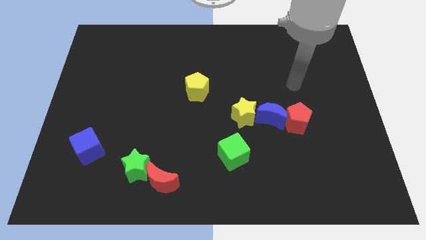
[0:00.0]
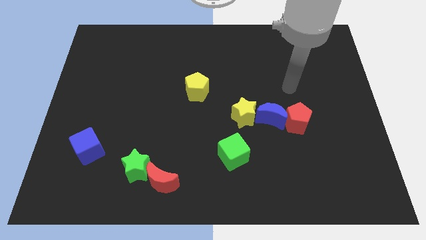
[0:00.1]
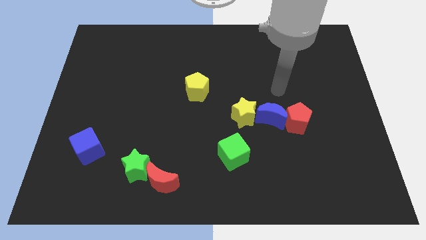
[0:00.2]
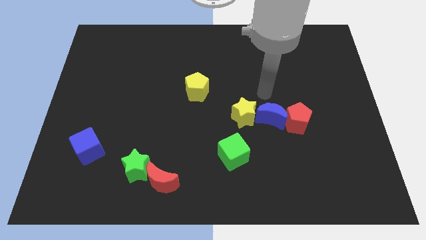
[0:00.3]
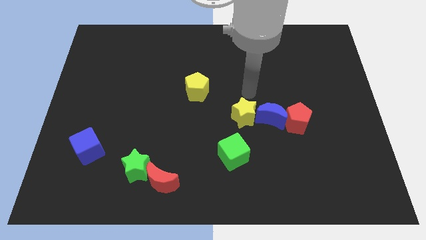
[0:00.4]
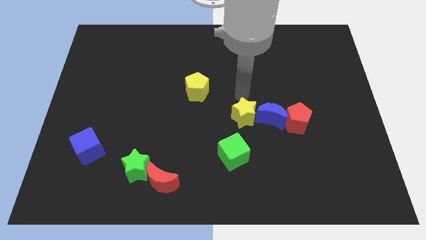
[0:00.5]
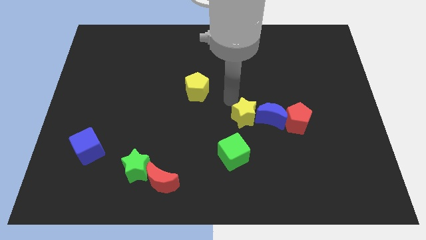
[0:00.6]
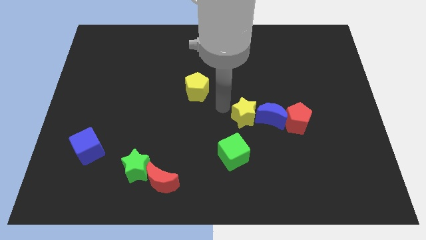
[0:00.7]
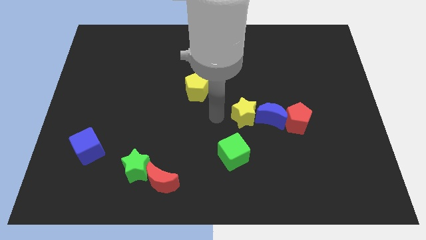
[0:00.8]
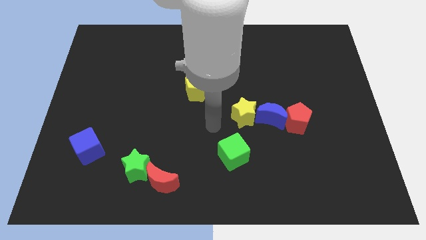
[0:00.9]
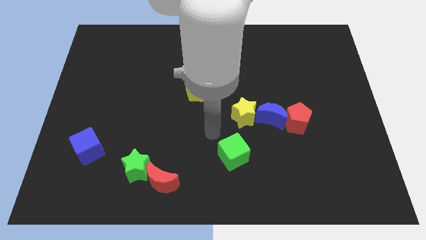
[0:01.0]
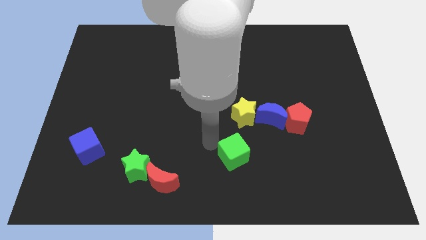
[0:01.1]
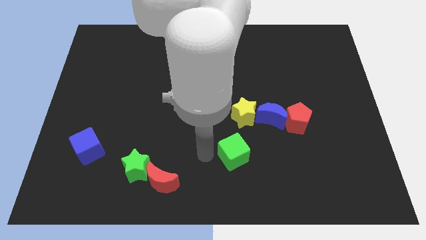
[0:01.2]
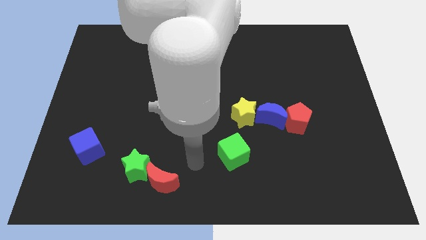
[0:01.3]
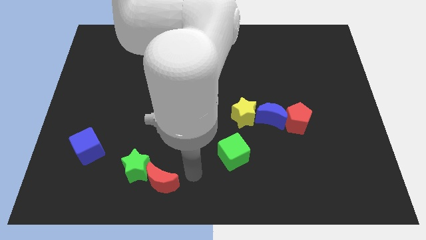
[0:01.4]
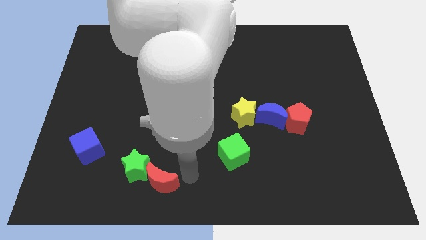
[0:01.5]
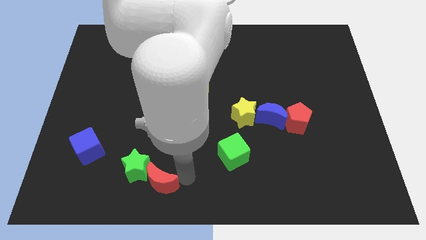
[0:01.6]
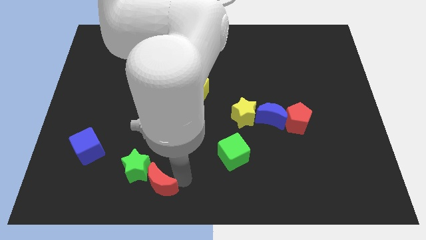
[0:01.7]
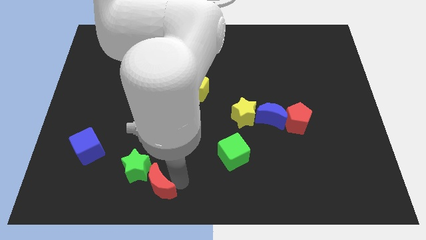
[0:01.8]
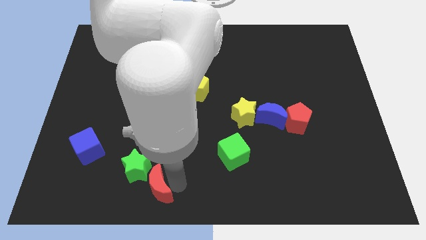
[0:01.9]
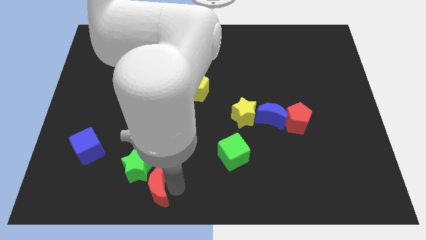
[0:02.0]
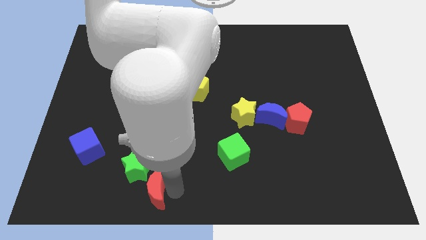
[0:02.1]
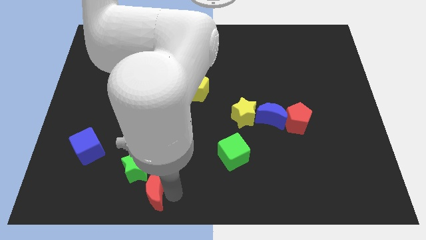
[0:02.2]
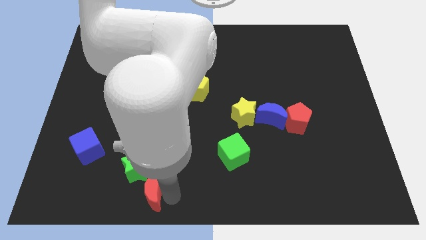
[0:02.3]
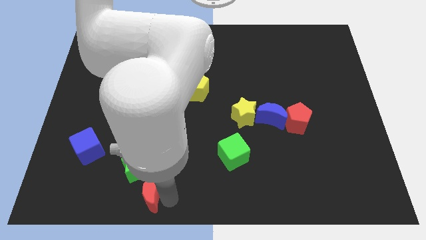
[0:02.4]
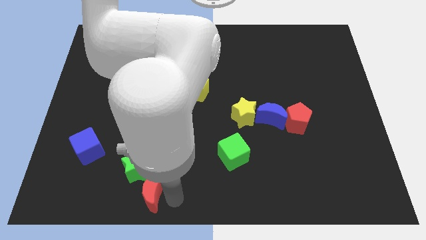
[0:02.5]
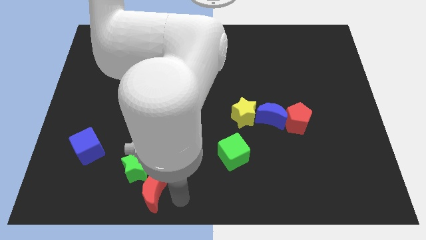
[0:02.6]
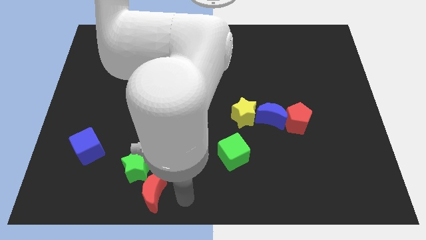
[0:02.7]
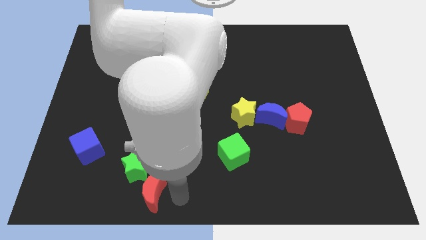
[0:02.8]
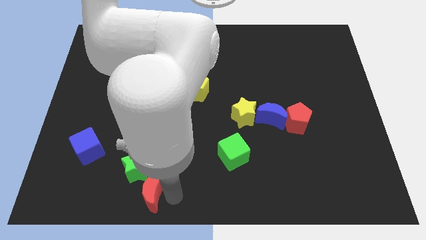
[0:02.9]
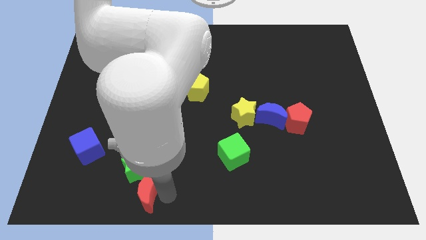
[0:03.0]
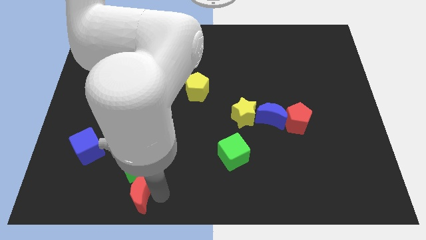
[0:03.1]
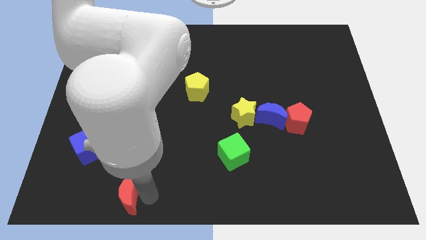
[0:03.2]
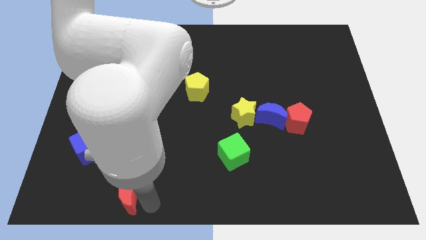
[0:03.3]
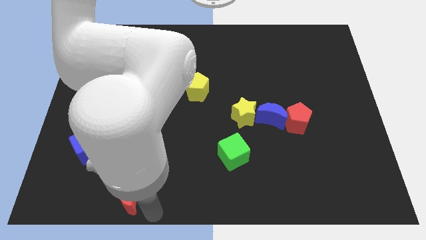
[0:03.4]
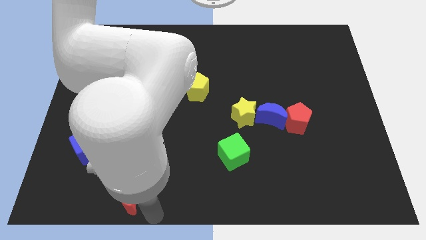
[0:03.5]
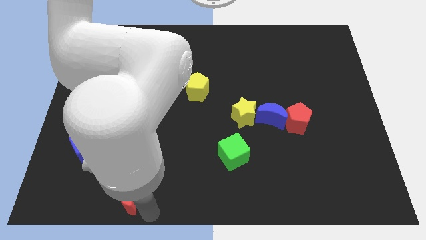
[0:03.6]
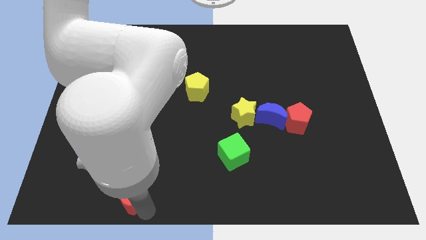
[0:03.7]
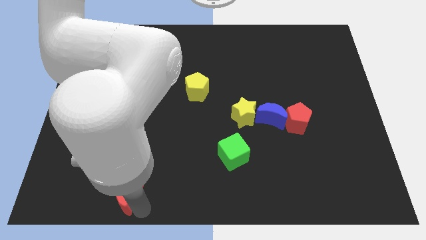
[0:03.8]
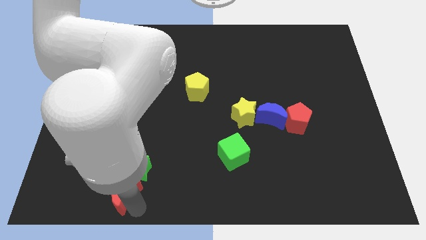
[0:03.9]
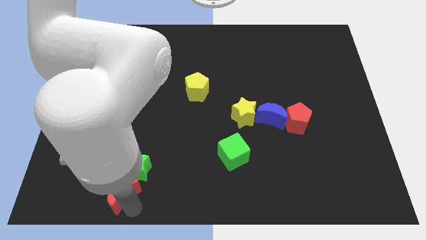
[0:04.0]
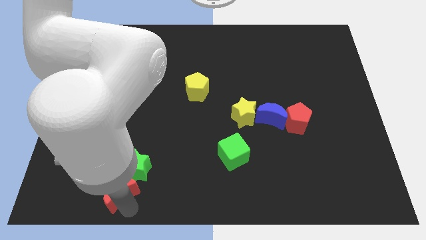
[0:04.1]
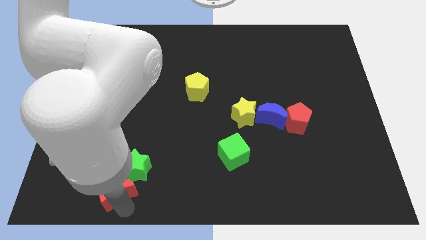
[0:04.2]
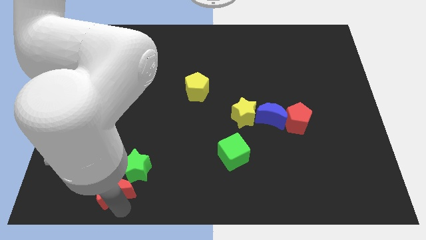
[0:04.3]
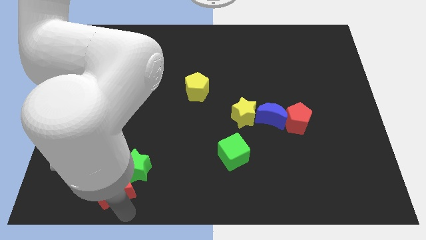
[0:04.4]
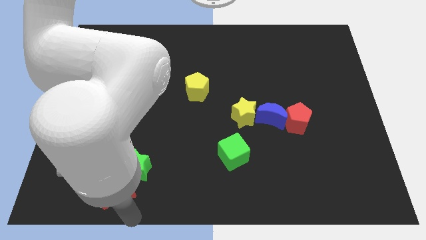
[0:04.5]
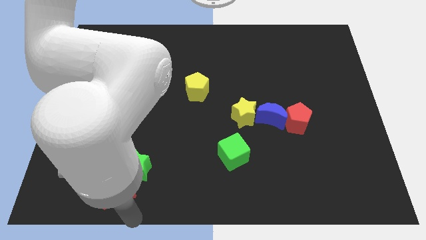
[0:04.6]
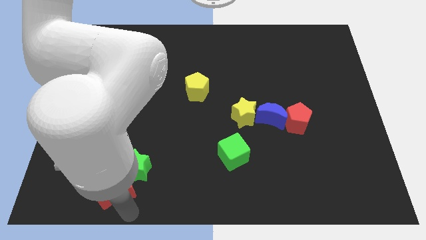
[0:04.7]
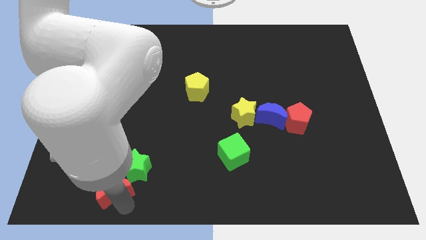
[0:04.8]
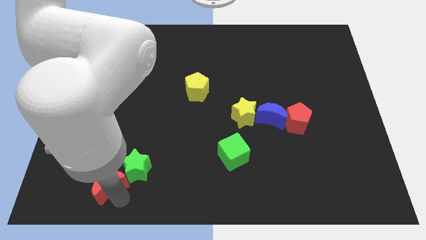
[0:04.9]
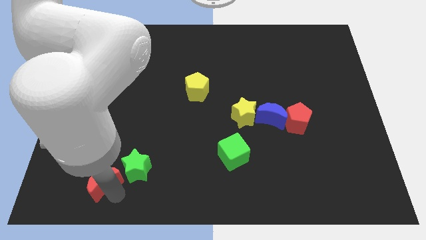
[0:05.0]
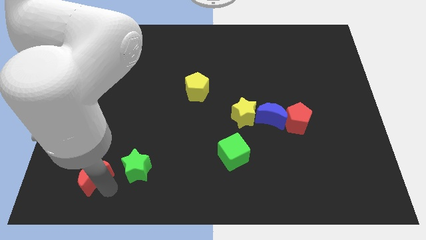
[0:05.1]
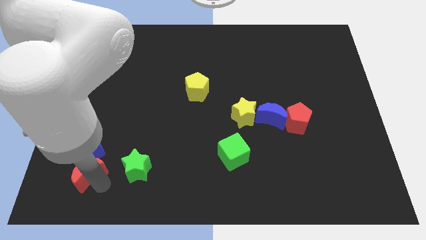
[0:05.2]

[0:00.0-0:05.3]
push the red moon to the blue cube

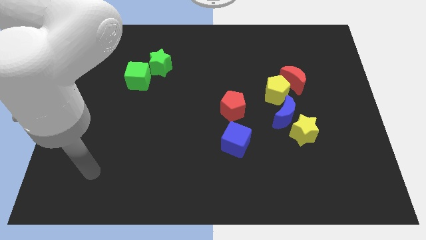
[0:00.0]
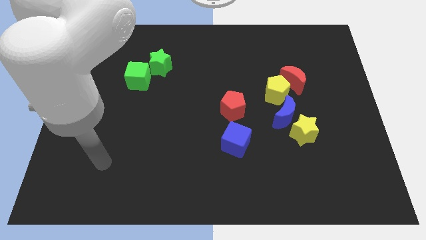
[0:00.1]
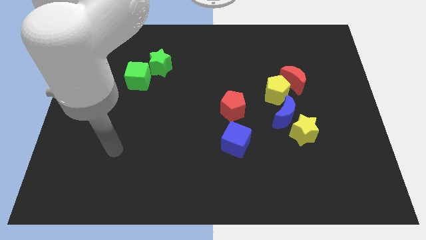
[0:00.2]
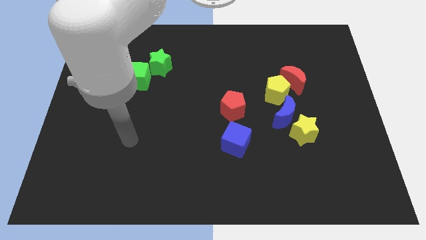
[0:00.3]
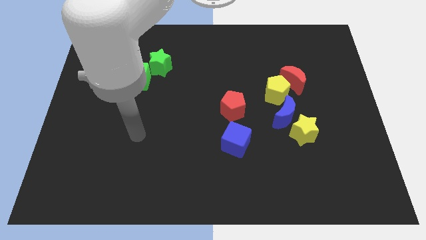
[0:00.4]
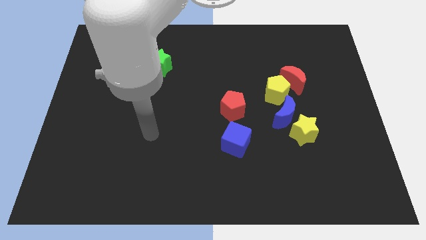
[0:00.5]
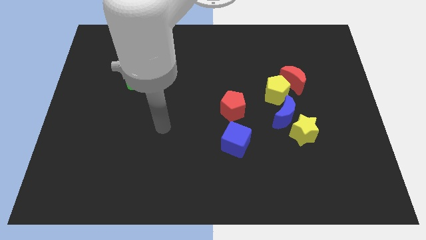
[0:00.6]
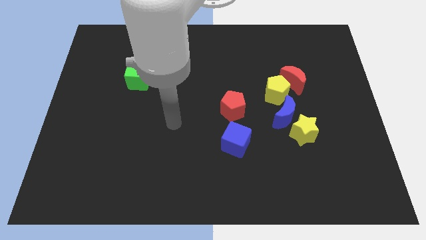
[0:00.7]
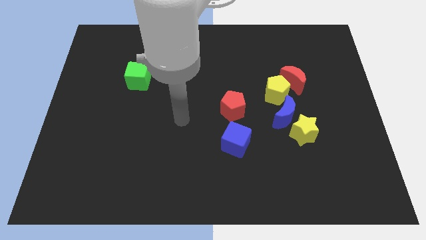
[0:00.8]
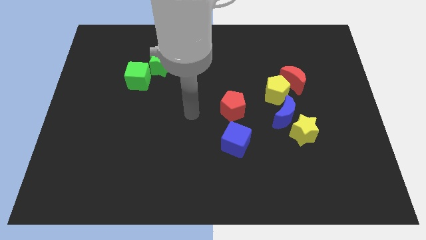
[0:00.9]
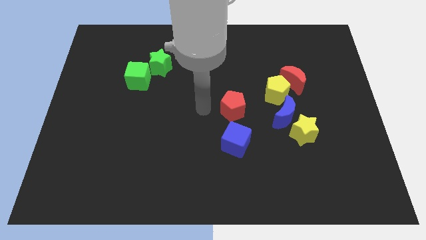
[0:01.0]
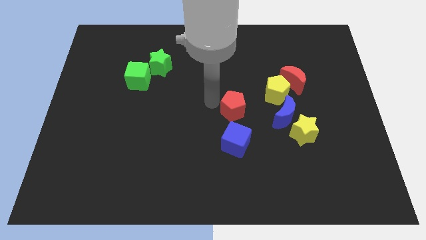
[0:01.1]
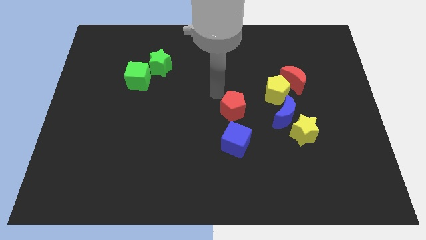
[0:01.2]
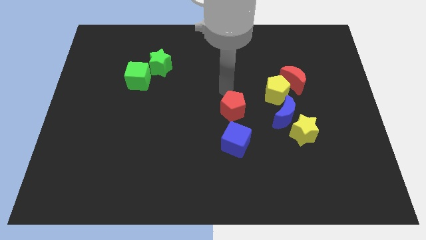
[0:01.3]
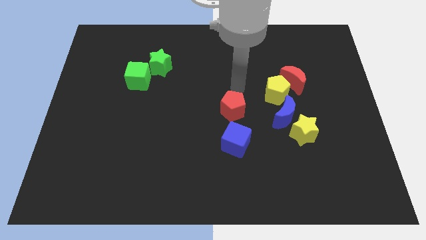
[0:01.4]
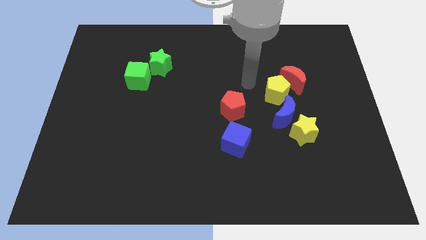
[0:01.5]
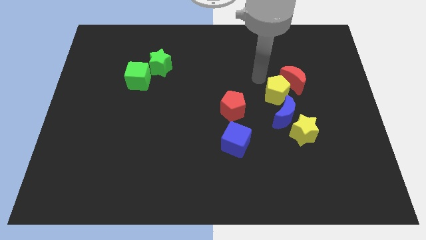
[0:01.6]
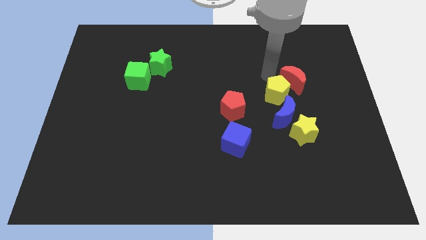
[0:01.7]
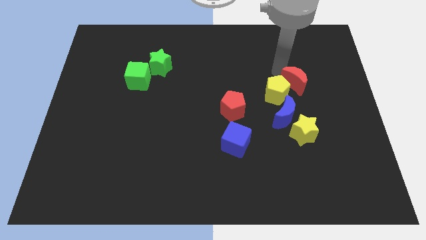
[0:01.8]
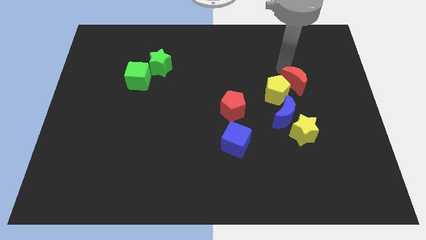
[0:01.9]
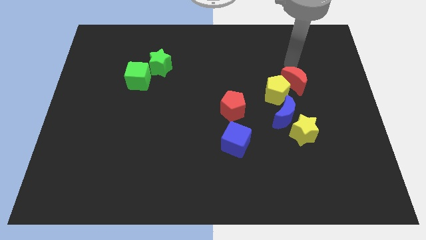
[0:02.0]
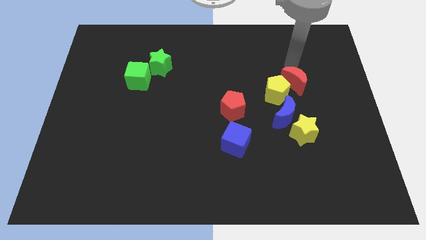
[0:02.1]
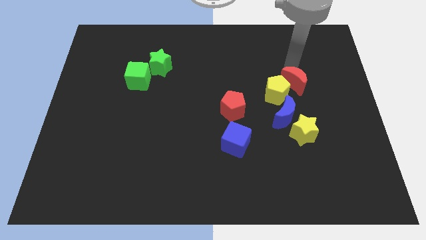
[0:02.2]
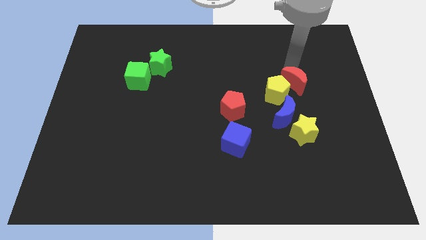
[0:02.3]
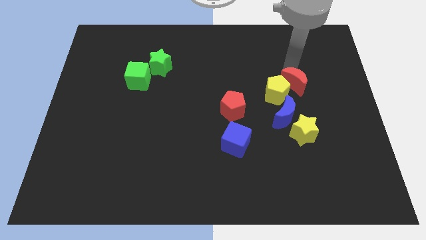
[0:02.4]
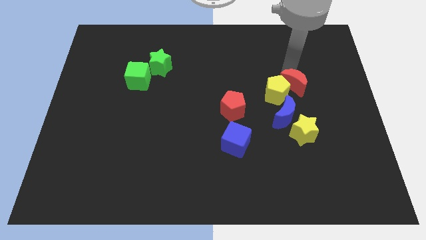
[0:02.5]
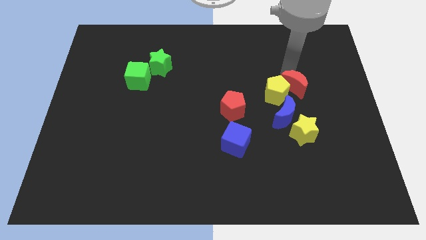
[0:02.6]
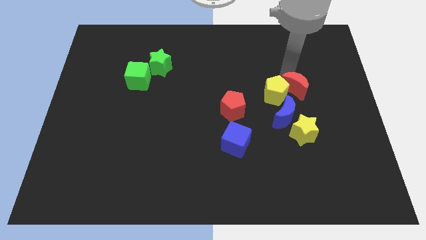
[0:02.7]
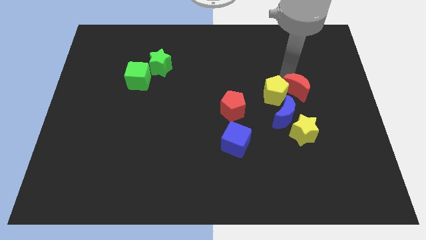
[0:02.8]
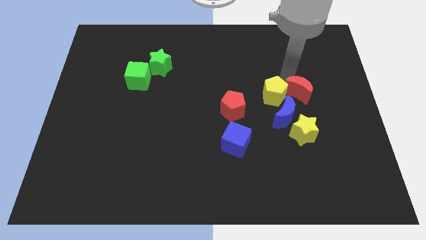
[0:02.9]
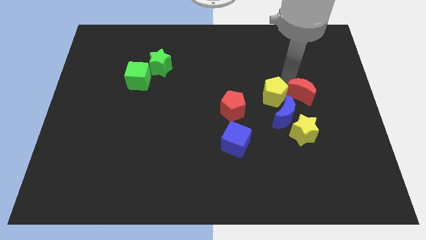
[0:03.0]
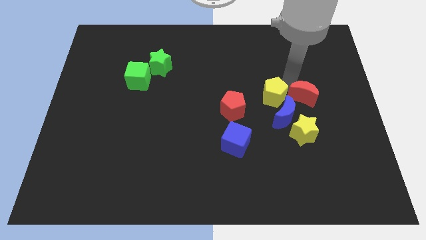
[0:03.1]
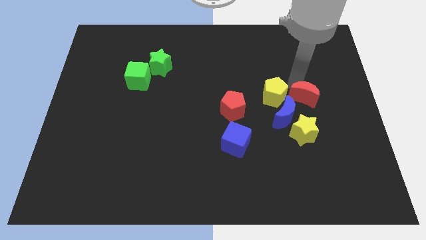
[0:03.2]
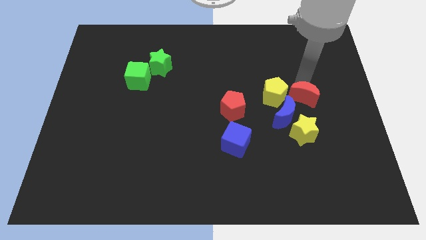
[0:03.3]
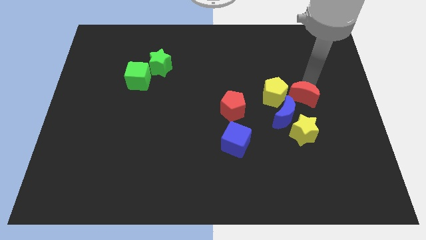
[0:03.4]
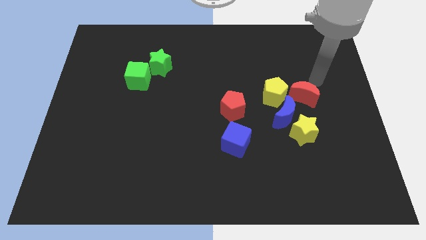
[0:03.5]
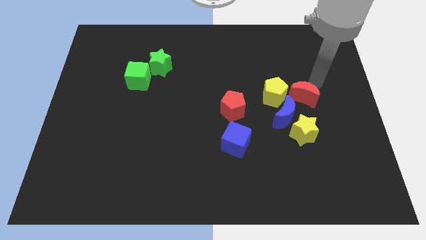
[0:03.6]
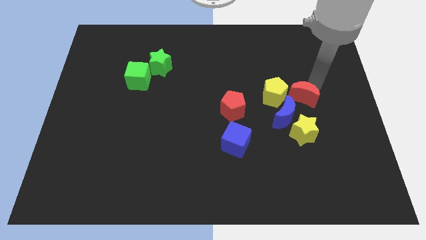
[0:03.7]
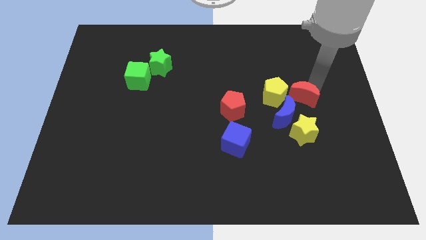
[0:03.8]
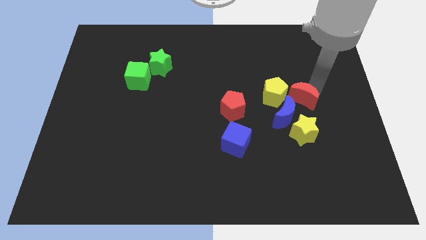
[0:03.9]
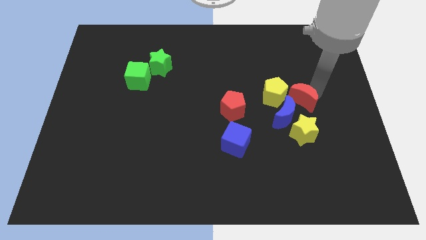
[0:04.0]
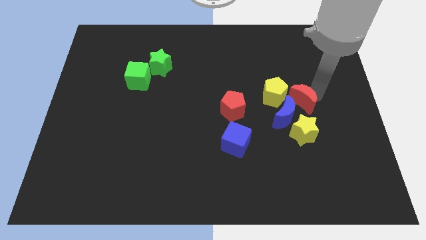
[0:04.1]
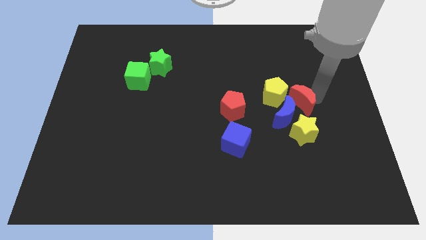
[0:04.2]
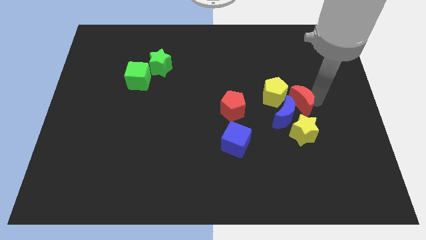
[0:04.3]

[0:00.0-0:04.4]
push the red moon to the blue moon
